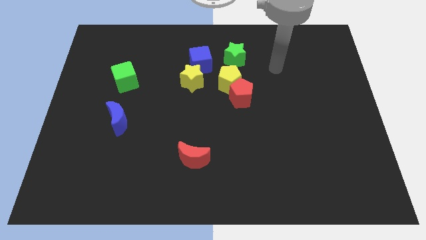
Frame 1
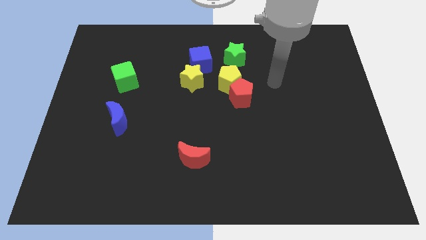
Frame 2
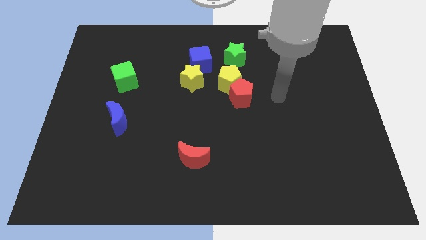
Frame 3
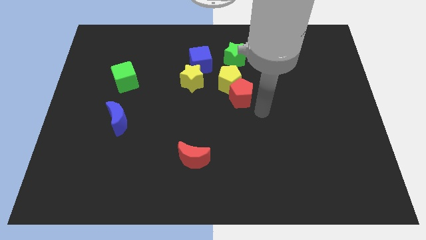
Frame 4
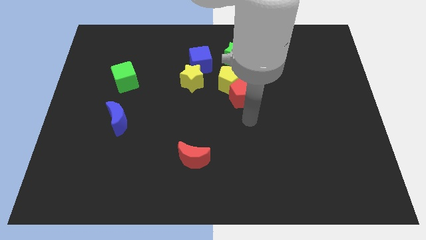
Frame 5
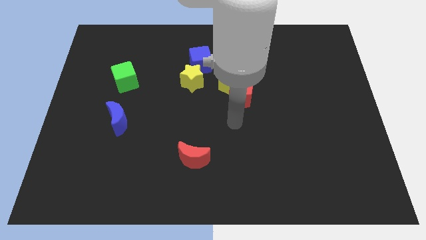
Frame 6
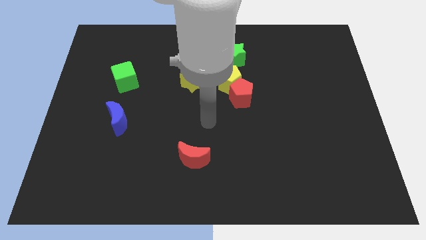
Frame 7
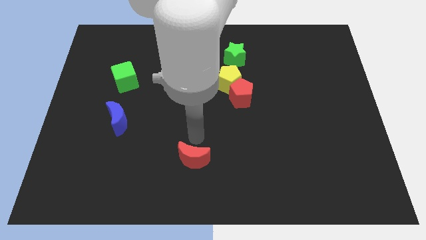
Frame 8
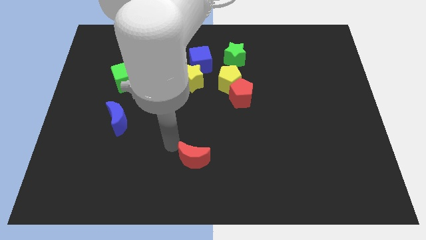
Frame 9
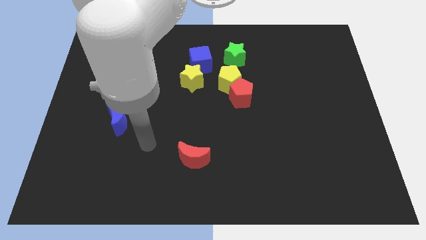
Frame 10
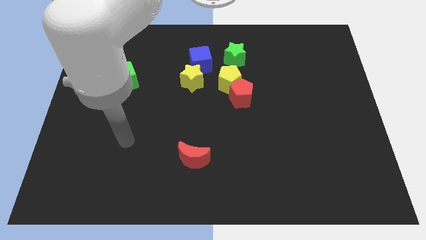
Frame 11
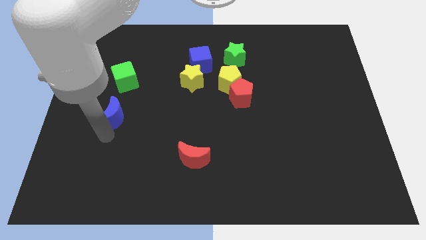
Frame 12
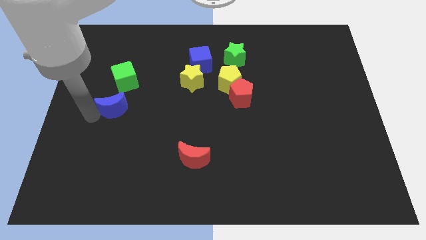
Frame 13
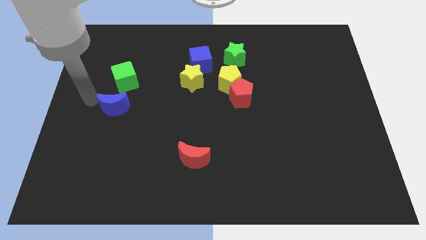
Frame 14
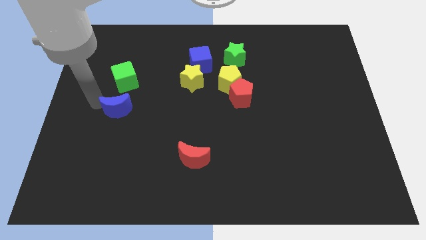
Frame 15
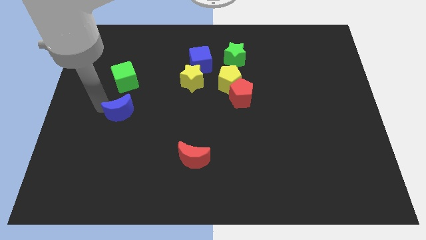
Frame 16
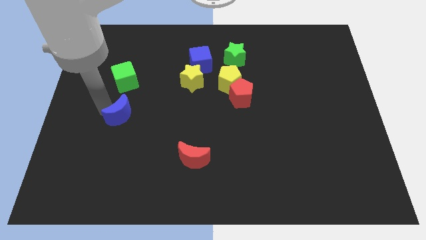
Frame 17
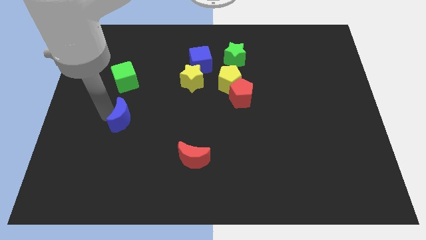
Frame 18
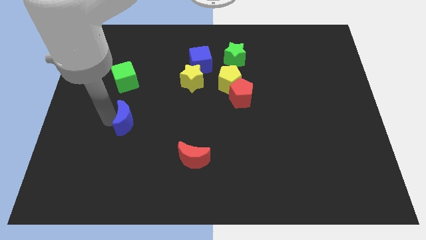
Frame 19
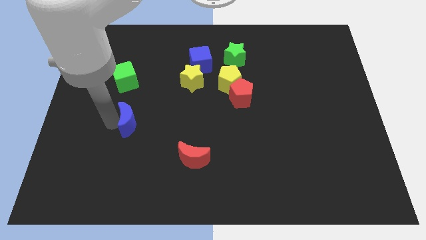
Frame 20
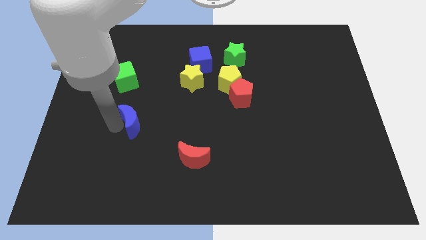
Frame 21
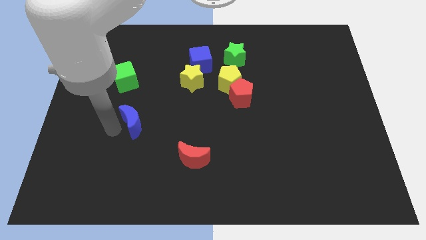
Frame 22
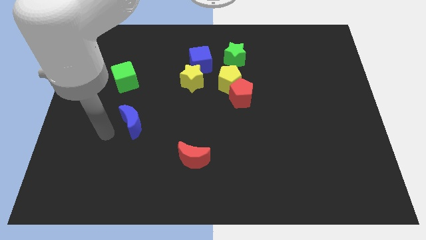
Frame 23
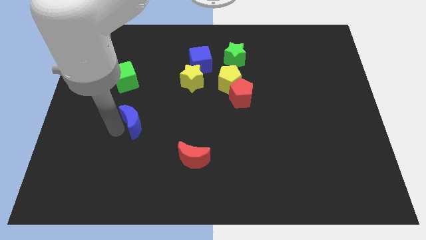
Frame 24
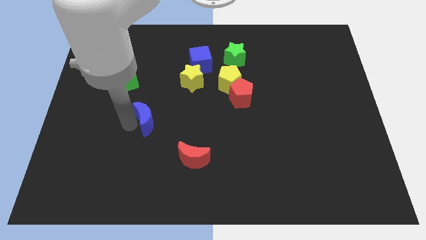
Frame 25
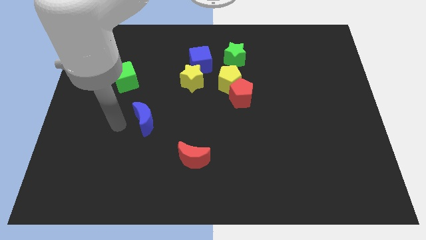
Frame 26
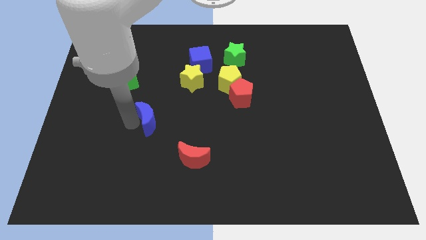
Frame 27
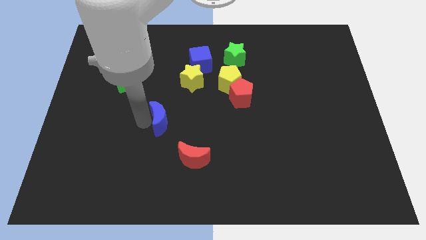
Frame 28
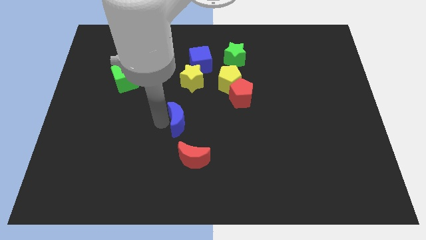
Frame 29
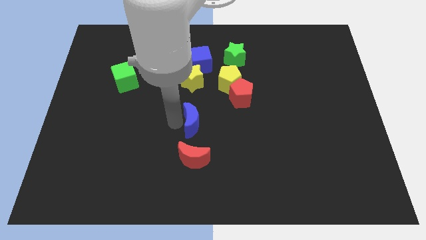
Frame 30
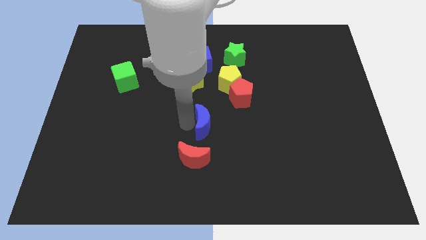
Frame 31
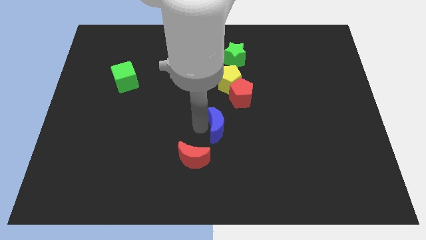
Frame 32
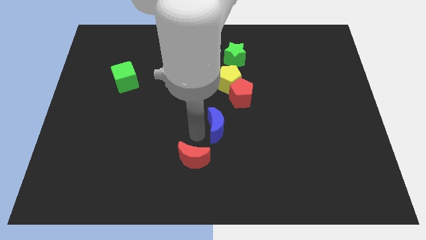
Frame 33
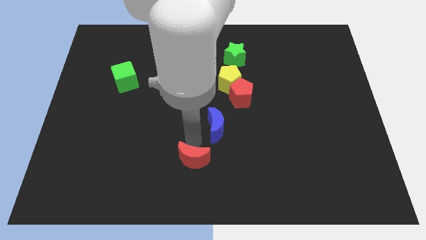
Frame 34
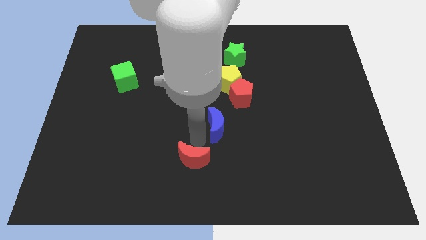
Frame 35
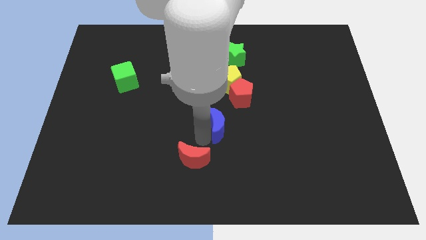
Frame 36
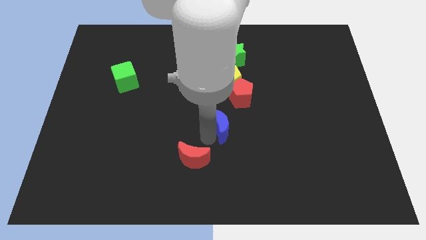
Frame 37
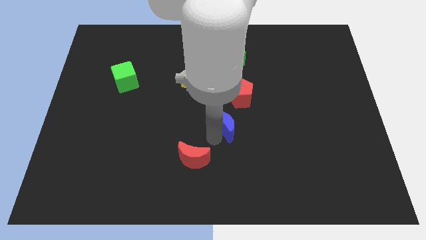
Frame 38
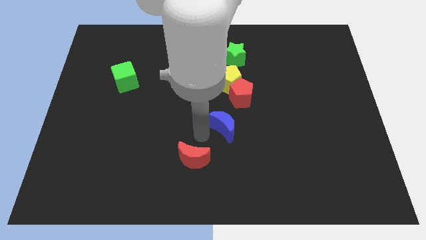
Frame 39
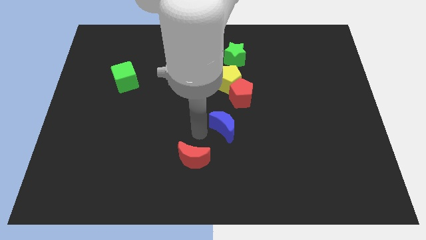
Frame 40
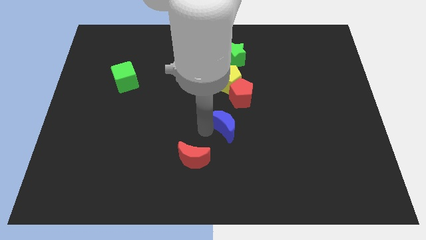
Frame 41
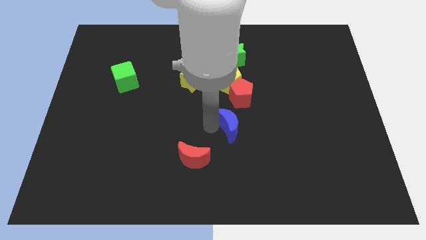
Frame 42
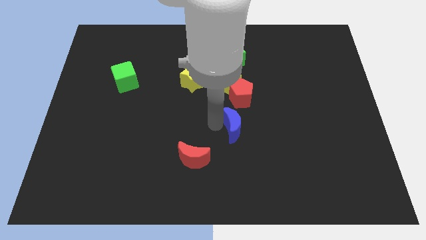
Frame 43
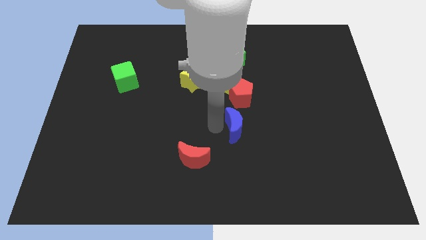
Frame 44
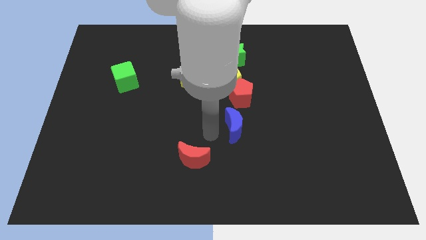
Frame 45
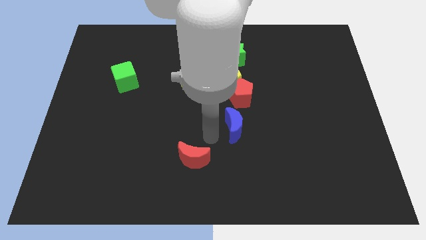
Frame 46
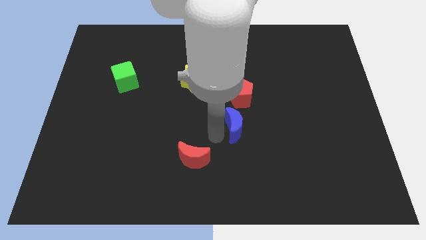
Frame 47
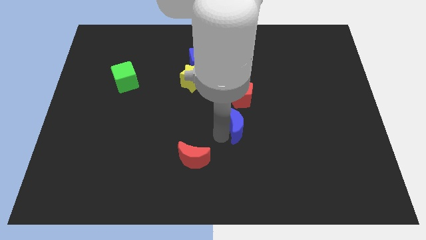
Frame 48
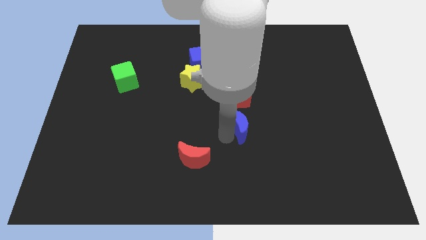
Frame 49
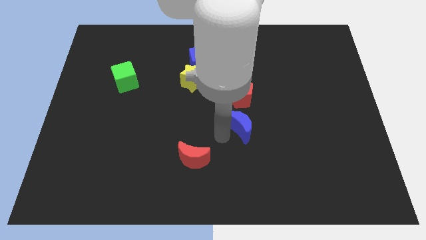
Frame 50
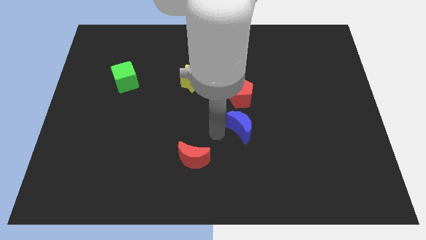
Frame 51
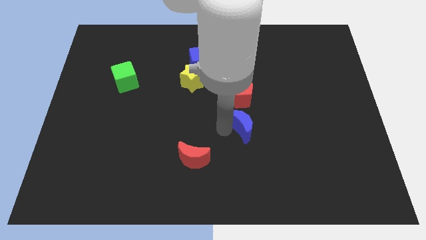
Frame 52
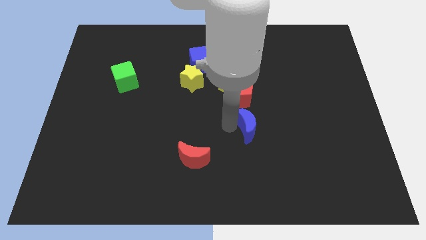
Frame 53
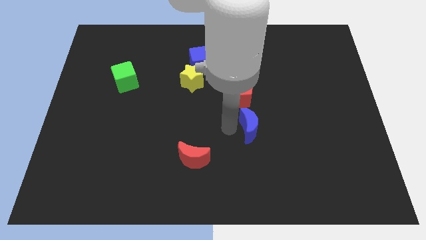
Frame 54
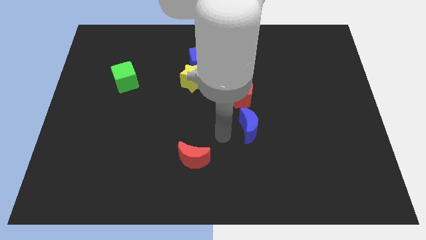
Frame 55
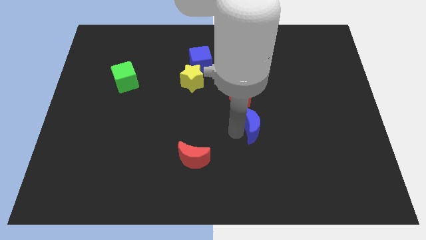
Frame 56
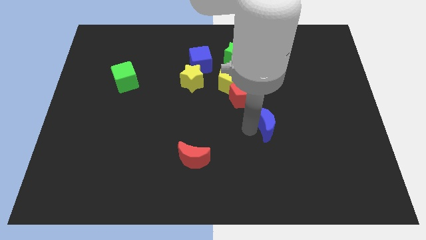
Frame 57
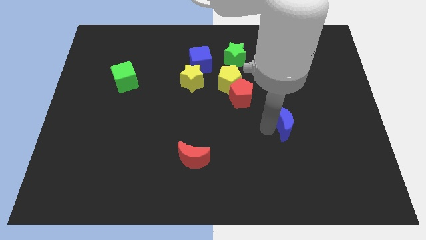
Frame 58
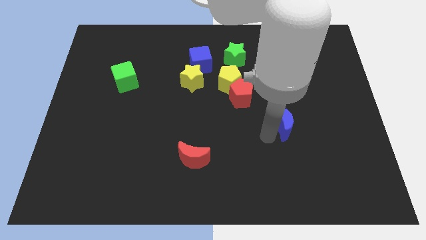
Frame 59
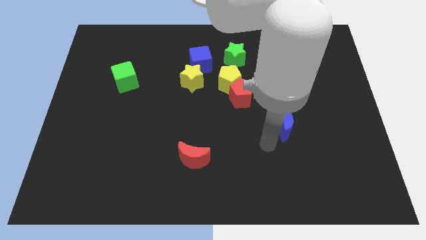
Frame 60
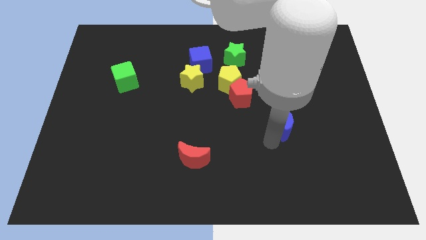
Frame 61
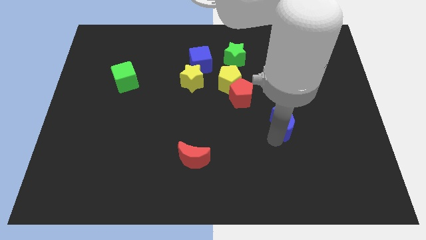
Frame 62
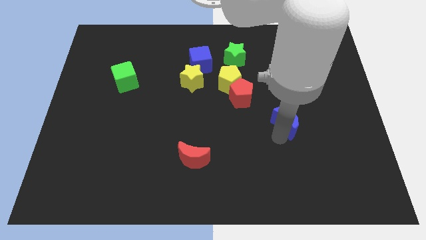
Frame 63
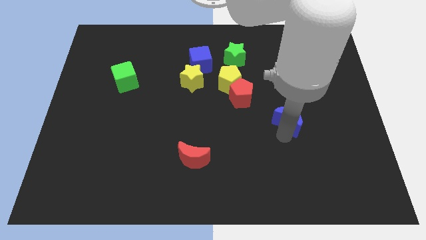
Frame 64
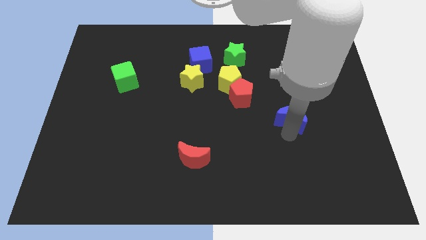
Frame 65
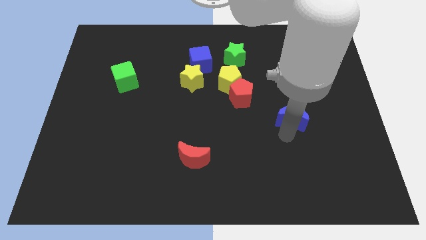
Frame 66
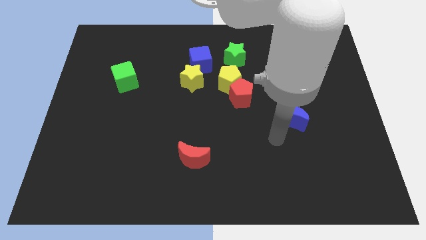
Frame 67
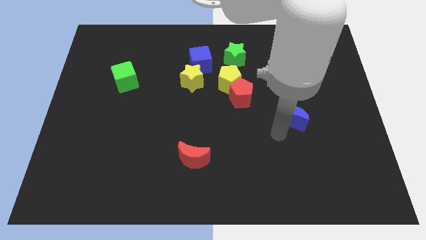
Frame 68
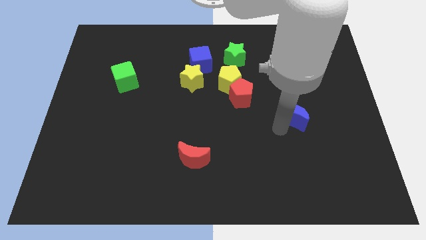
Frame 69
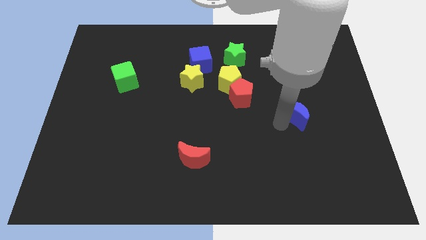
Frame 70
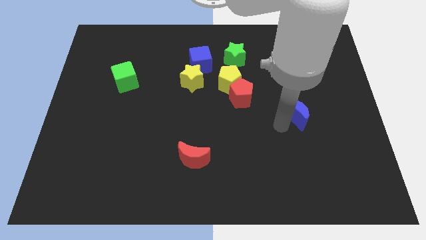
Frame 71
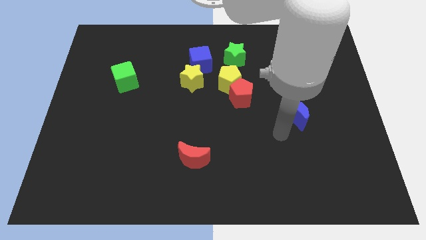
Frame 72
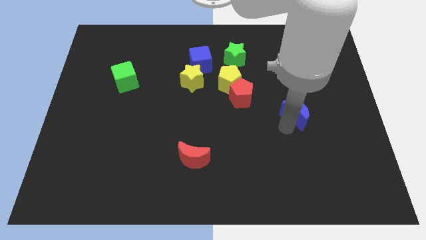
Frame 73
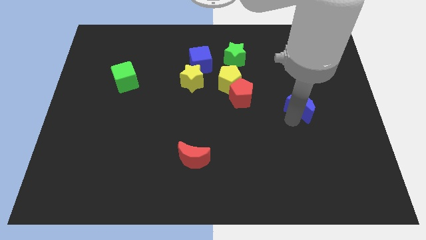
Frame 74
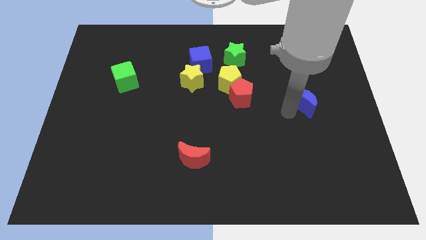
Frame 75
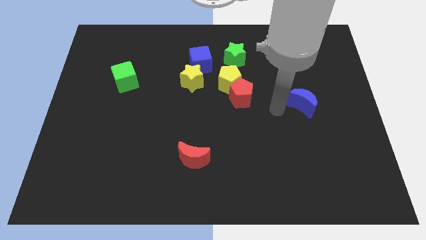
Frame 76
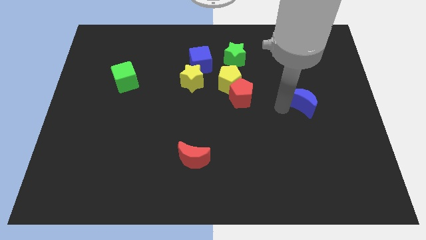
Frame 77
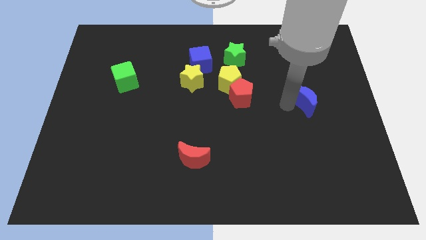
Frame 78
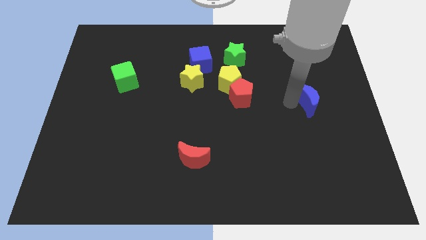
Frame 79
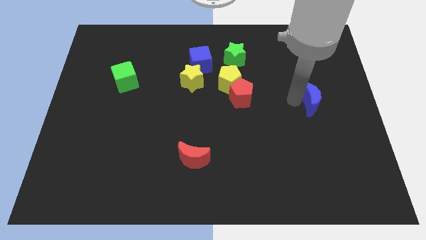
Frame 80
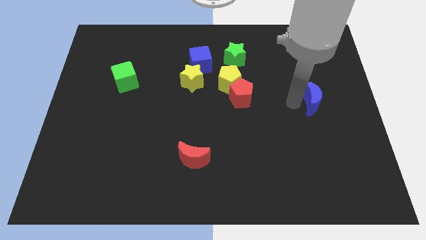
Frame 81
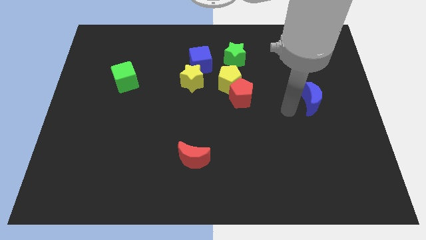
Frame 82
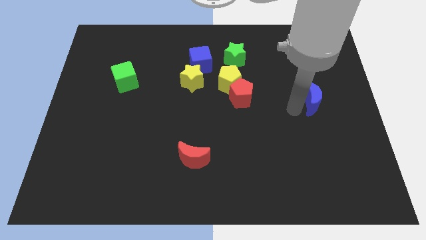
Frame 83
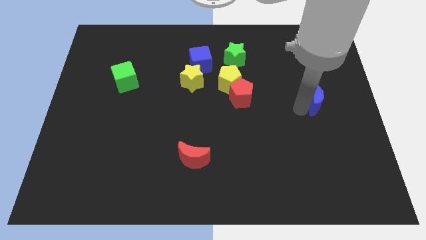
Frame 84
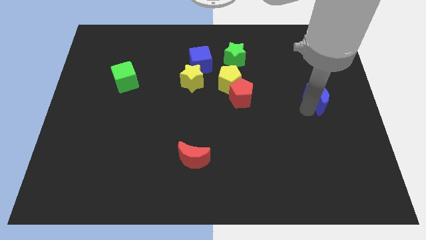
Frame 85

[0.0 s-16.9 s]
push the blue moon to the right side
